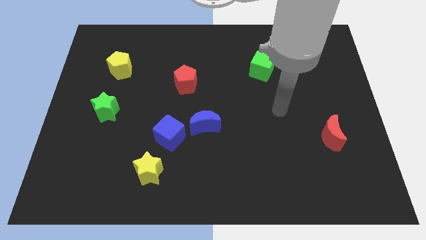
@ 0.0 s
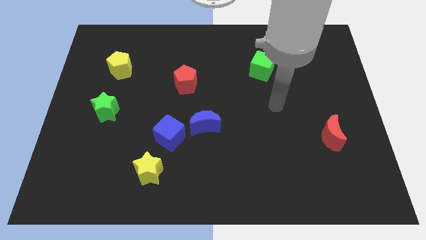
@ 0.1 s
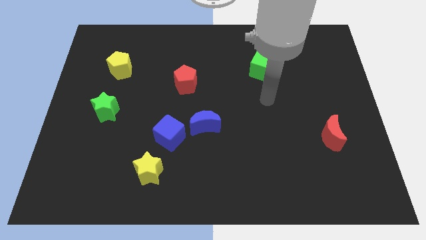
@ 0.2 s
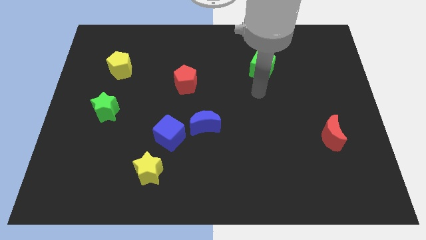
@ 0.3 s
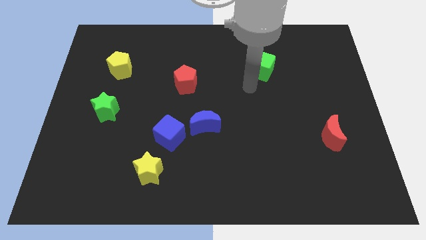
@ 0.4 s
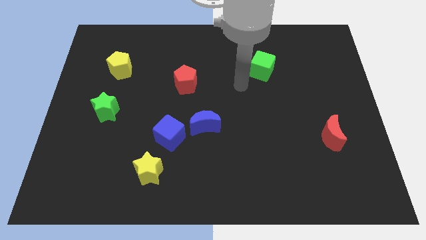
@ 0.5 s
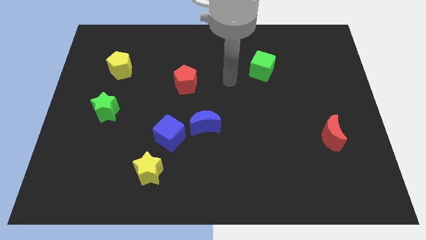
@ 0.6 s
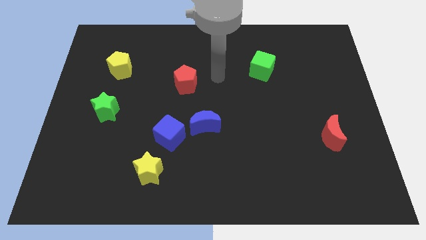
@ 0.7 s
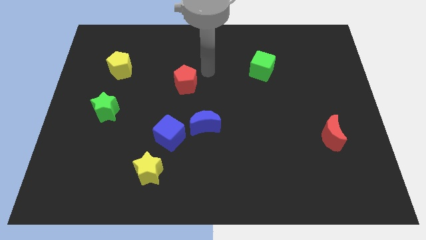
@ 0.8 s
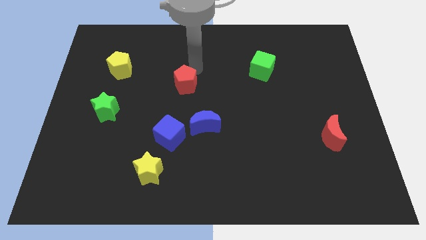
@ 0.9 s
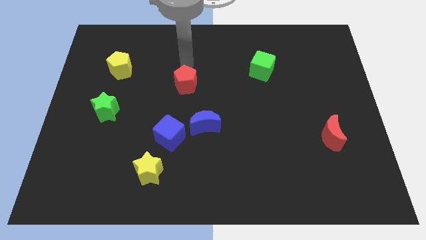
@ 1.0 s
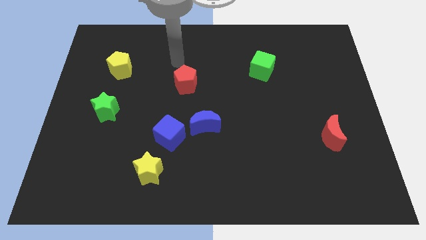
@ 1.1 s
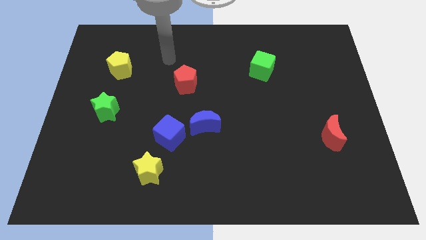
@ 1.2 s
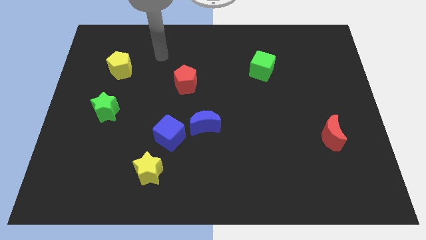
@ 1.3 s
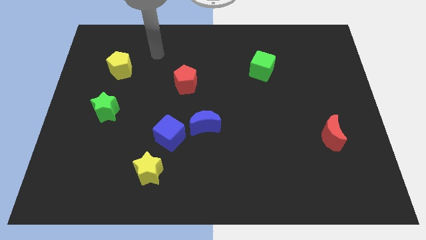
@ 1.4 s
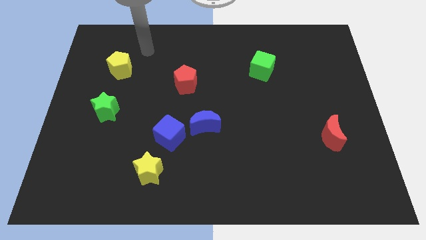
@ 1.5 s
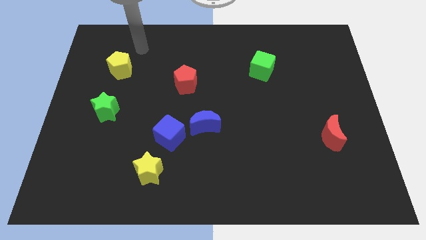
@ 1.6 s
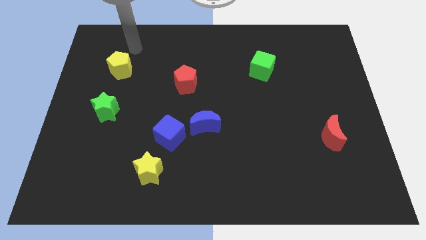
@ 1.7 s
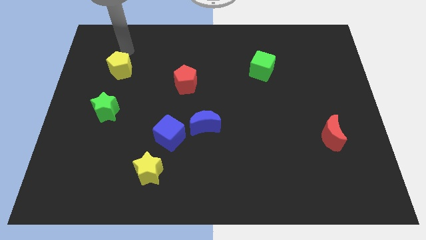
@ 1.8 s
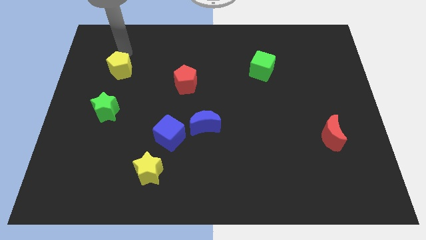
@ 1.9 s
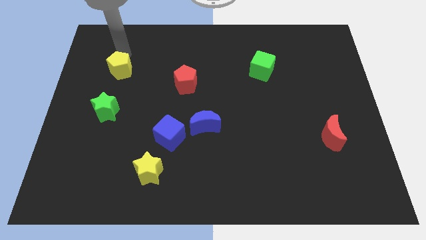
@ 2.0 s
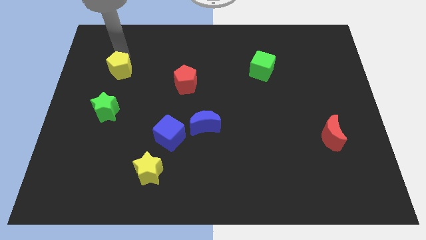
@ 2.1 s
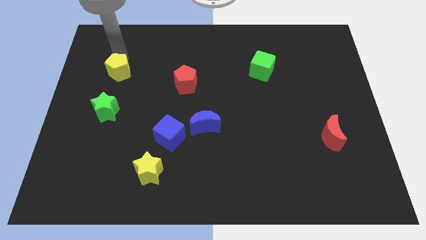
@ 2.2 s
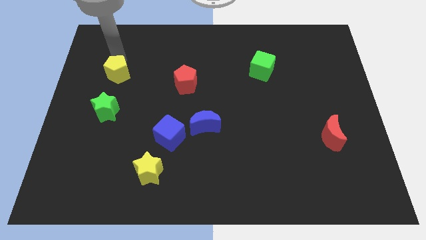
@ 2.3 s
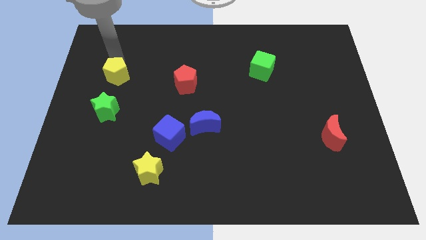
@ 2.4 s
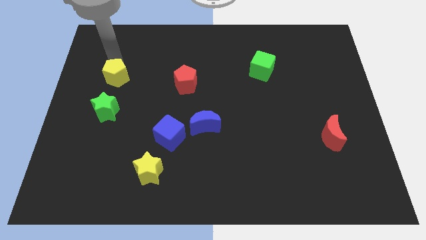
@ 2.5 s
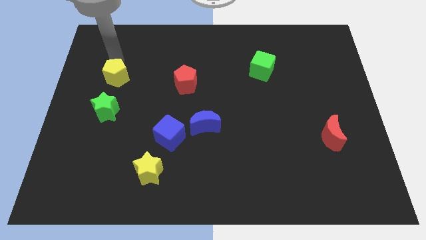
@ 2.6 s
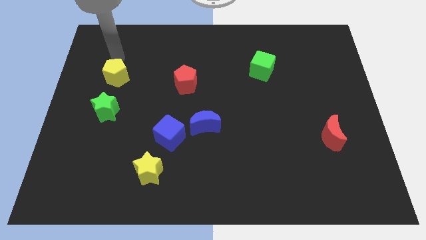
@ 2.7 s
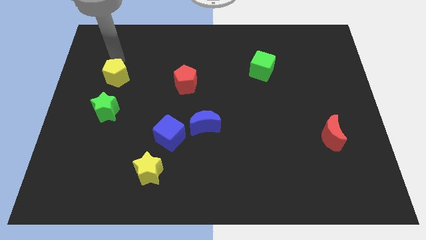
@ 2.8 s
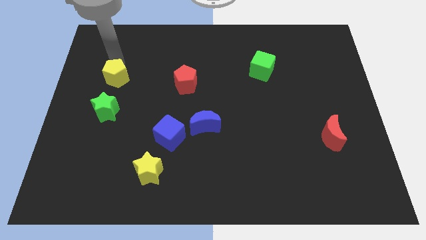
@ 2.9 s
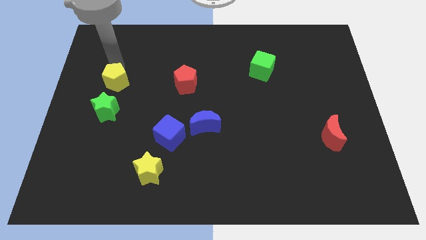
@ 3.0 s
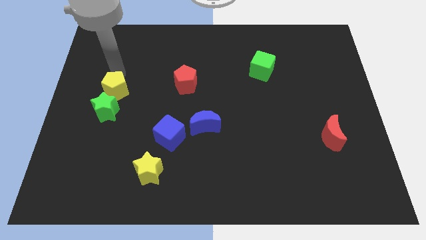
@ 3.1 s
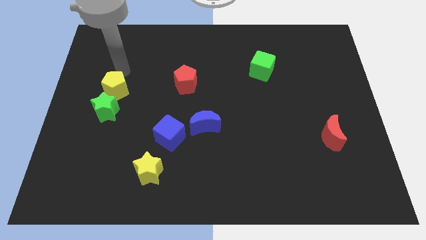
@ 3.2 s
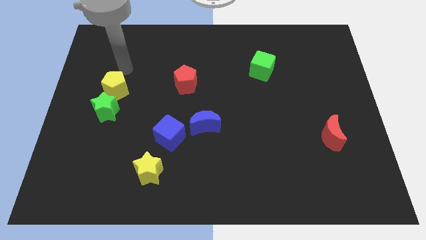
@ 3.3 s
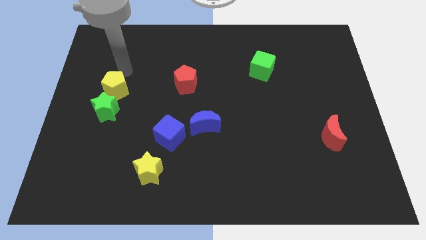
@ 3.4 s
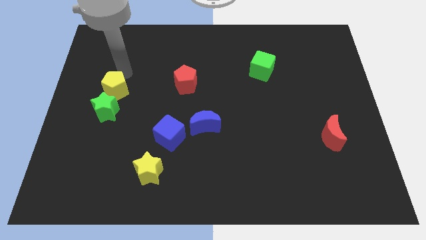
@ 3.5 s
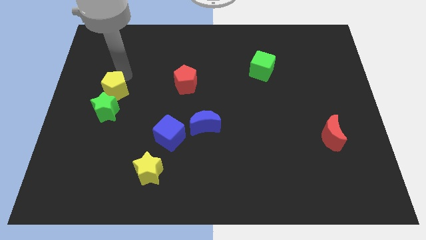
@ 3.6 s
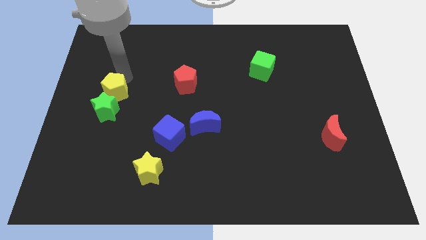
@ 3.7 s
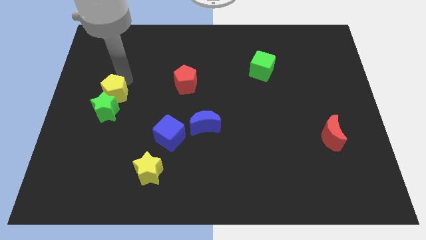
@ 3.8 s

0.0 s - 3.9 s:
put the yellow pentagon close to the green star

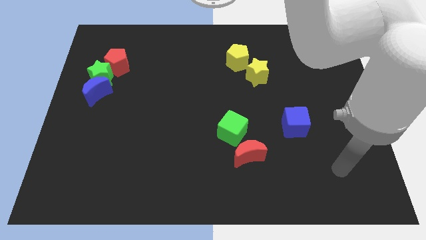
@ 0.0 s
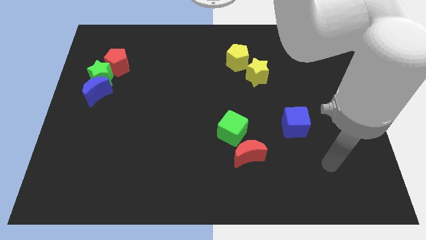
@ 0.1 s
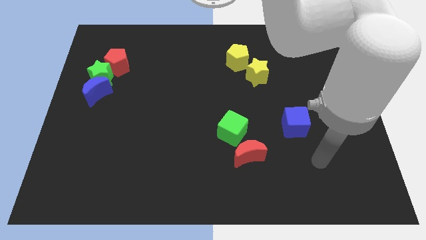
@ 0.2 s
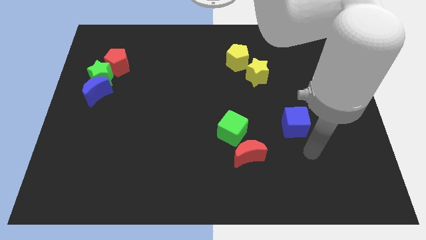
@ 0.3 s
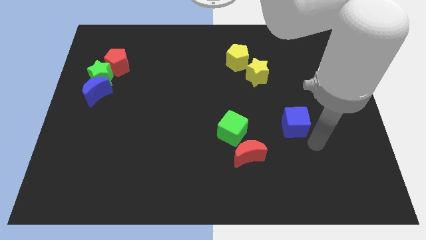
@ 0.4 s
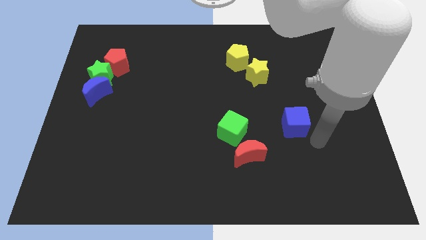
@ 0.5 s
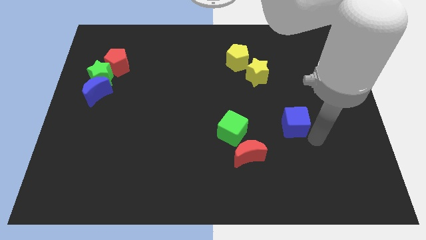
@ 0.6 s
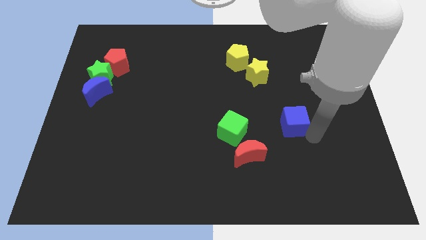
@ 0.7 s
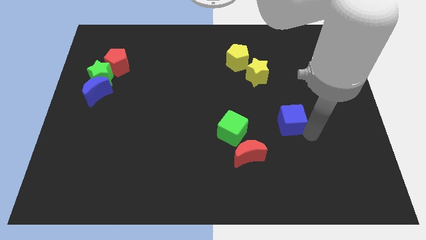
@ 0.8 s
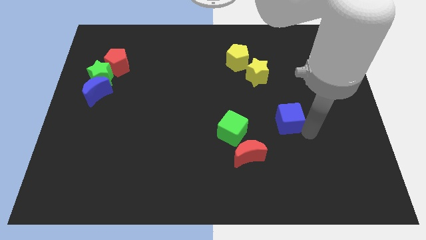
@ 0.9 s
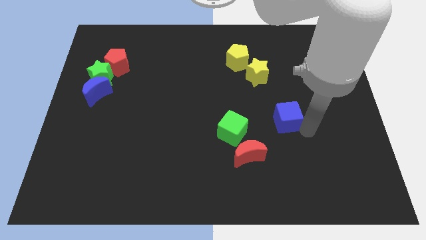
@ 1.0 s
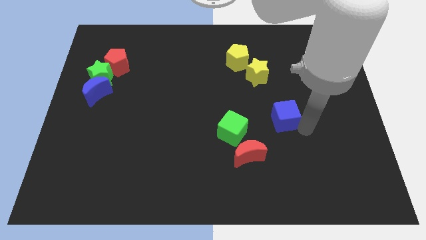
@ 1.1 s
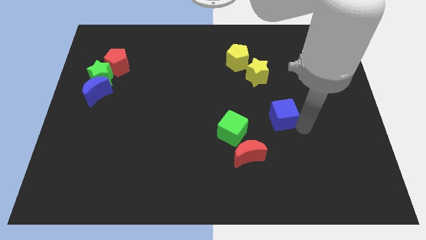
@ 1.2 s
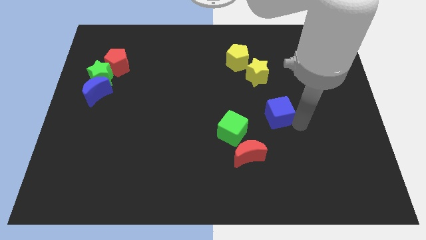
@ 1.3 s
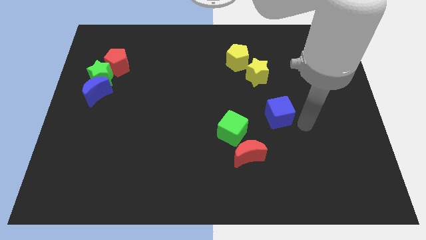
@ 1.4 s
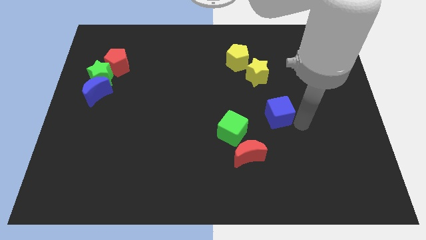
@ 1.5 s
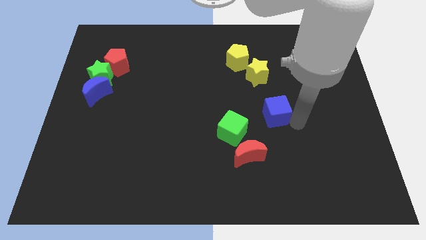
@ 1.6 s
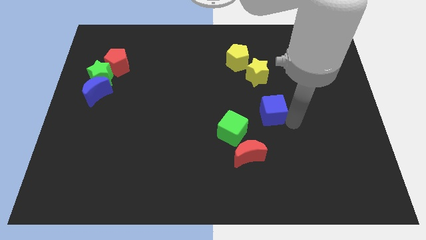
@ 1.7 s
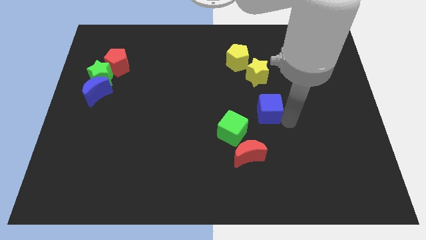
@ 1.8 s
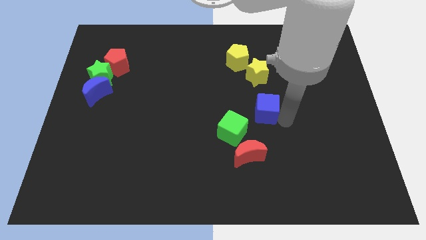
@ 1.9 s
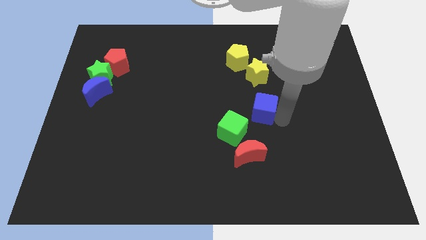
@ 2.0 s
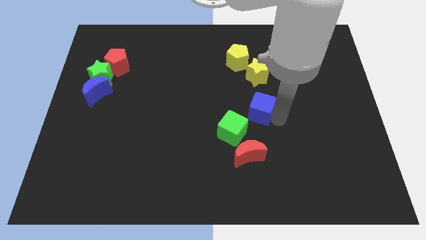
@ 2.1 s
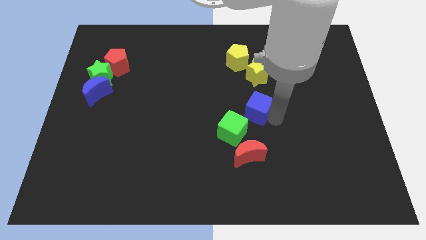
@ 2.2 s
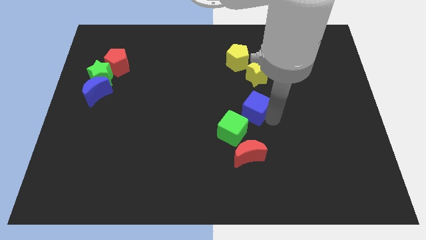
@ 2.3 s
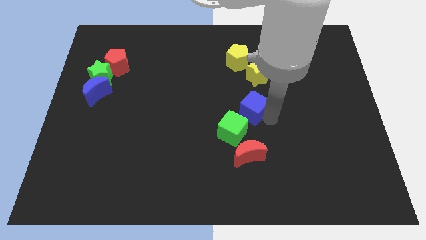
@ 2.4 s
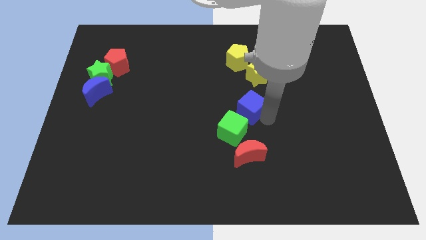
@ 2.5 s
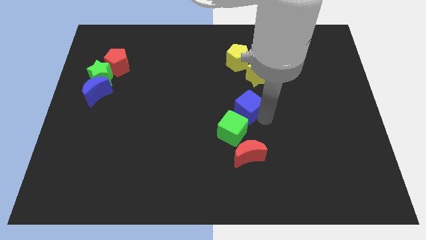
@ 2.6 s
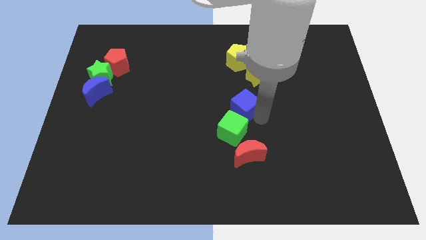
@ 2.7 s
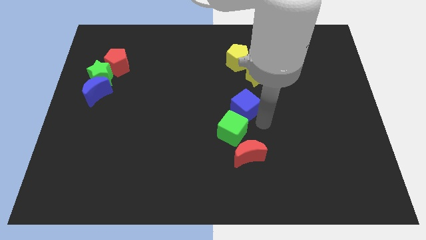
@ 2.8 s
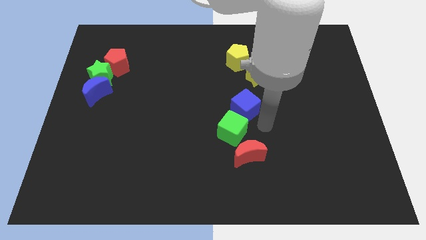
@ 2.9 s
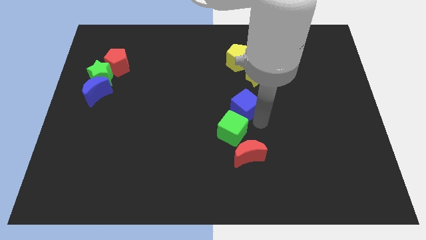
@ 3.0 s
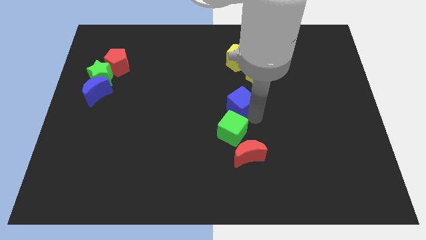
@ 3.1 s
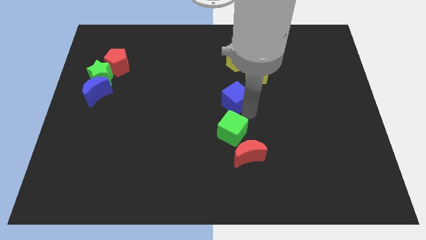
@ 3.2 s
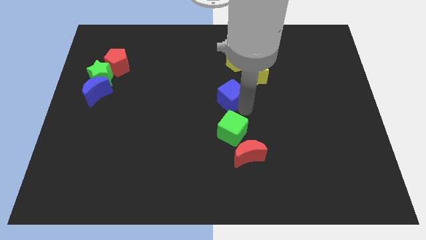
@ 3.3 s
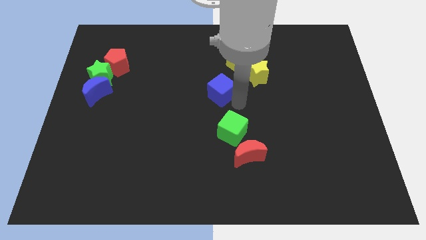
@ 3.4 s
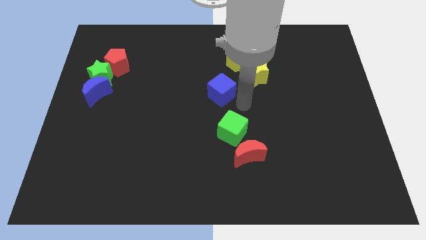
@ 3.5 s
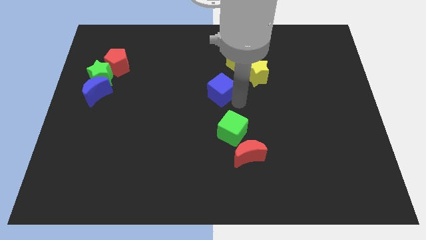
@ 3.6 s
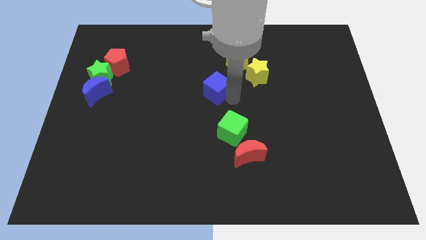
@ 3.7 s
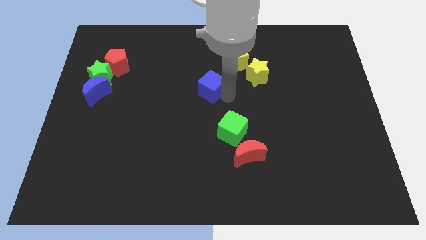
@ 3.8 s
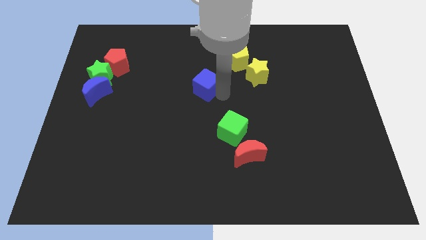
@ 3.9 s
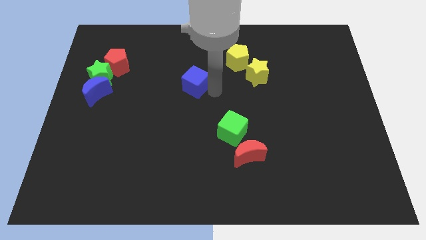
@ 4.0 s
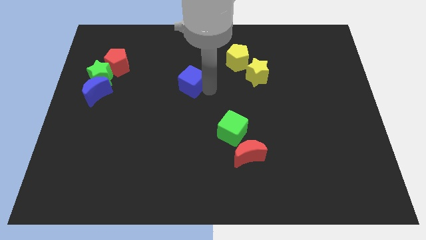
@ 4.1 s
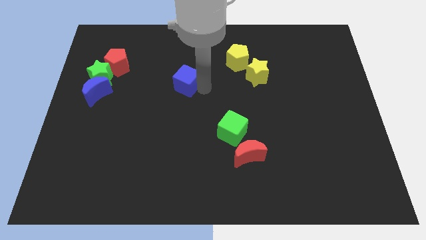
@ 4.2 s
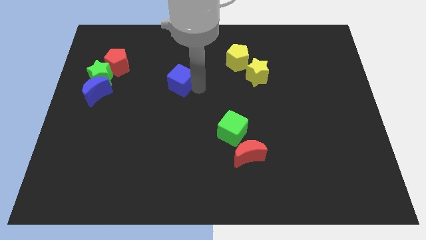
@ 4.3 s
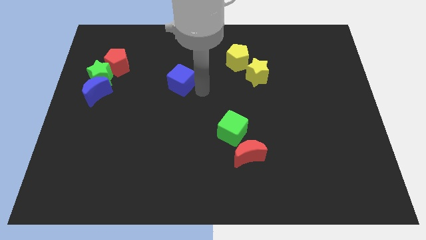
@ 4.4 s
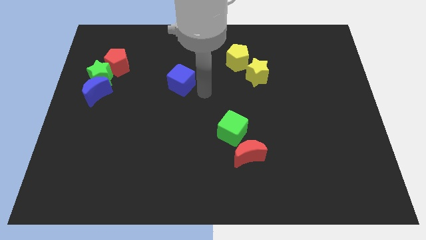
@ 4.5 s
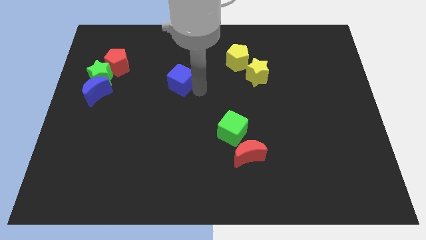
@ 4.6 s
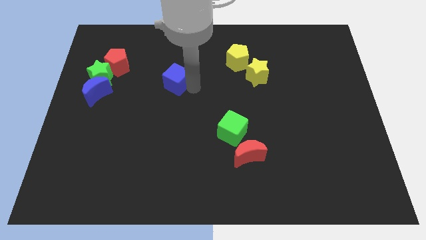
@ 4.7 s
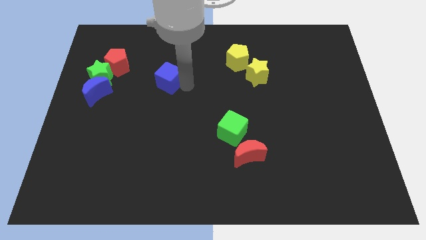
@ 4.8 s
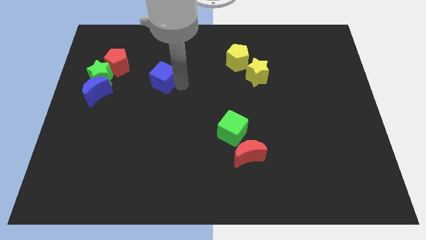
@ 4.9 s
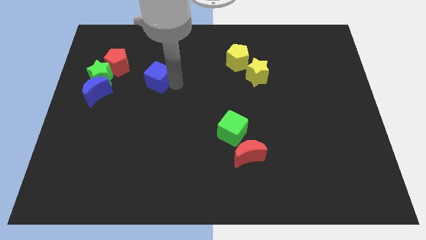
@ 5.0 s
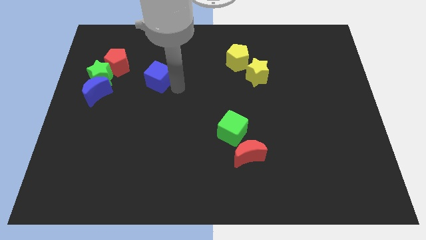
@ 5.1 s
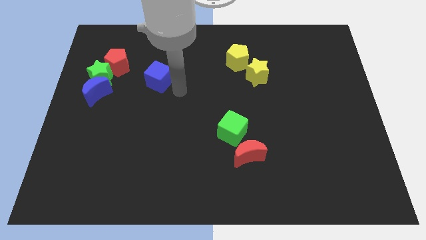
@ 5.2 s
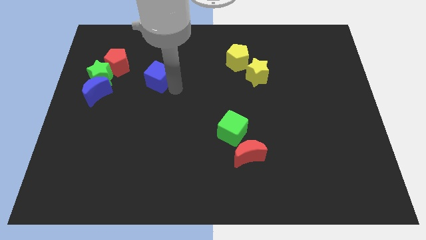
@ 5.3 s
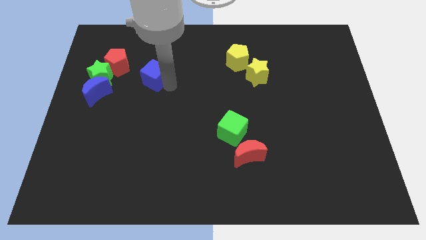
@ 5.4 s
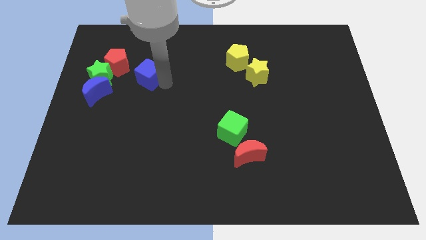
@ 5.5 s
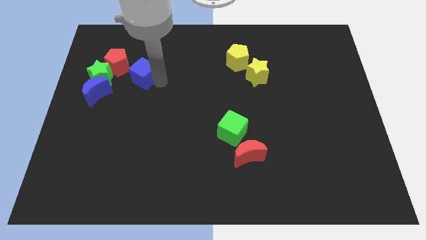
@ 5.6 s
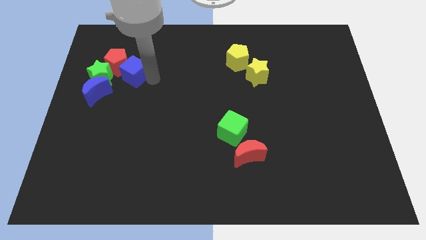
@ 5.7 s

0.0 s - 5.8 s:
push the blue cube next to the red pentagon
